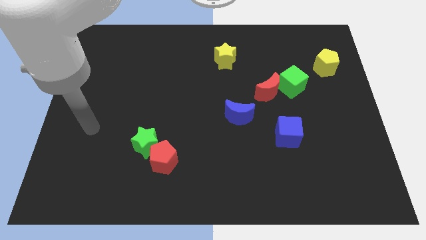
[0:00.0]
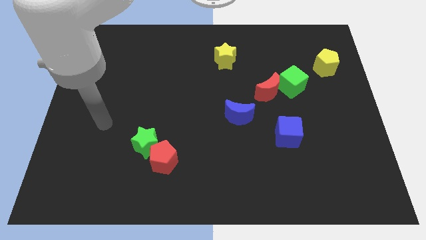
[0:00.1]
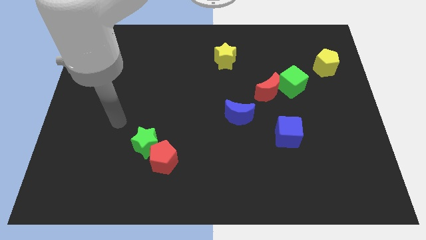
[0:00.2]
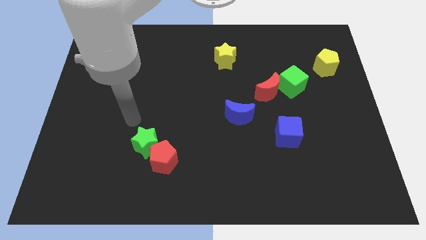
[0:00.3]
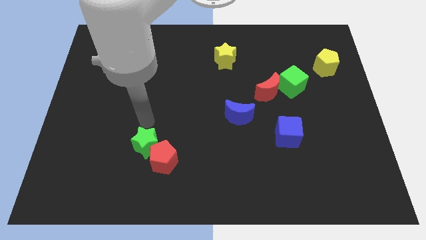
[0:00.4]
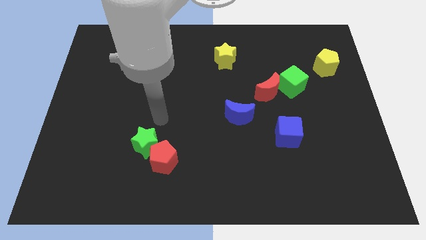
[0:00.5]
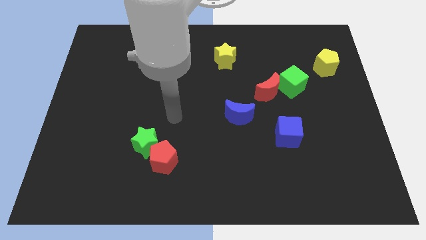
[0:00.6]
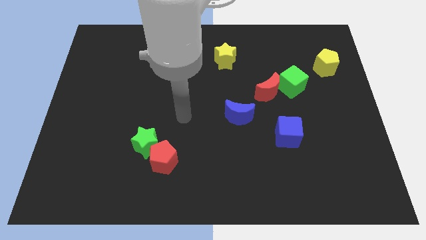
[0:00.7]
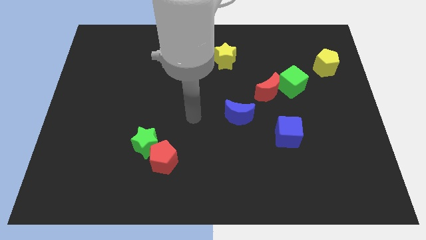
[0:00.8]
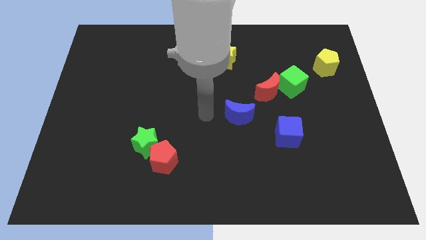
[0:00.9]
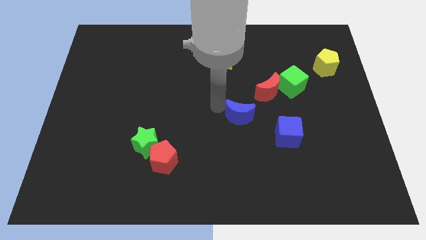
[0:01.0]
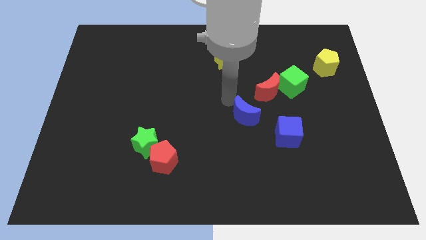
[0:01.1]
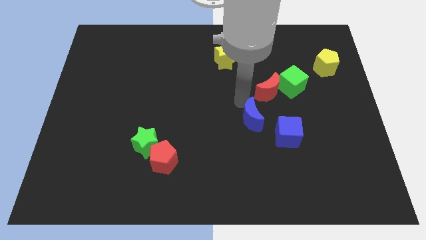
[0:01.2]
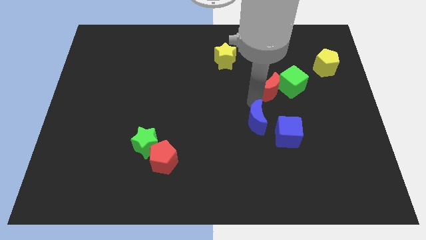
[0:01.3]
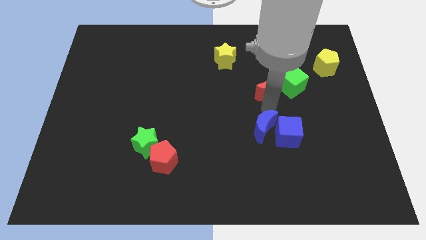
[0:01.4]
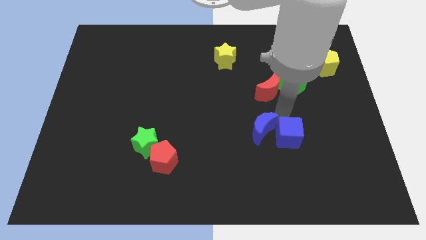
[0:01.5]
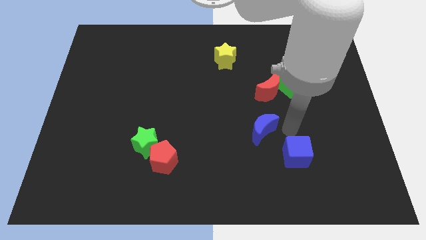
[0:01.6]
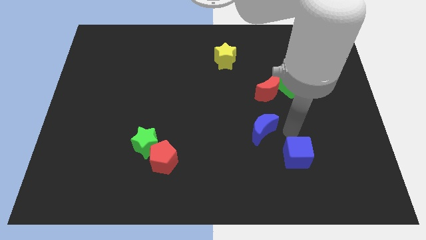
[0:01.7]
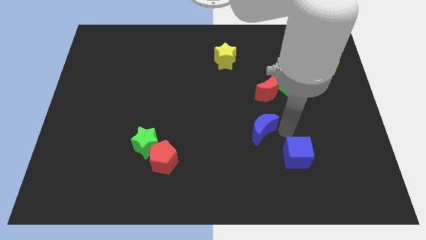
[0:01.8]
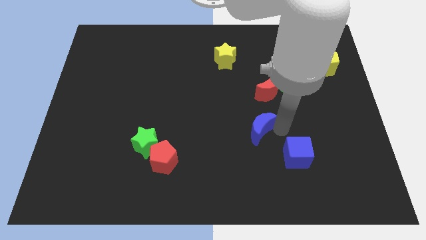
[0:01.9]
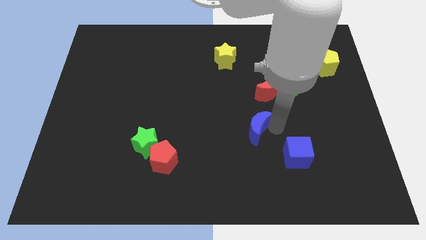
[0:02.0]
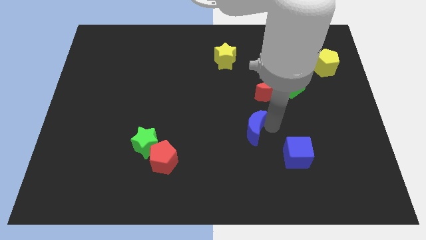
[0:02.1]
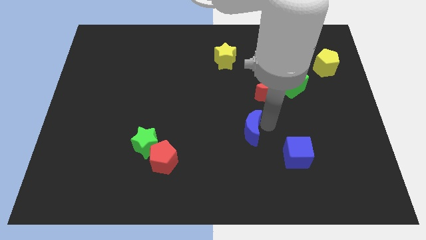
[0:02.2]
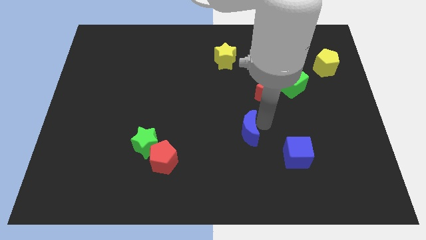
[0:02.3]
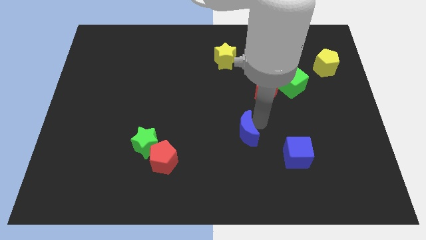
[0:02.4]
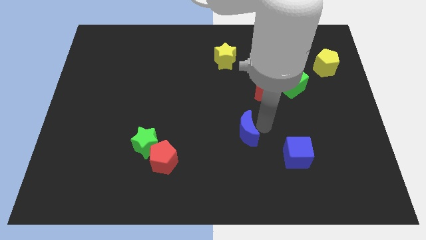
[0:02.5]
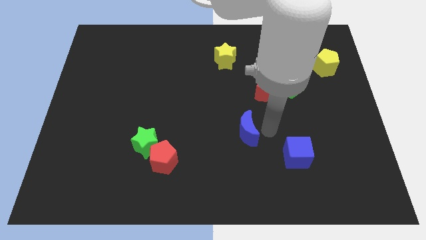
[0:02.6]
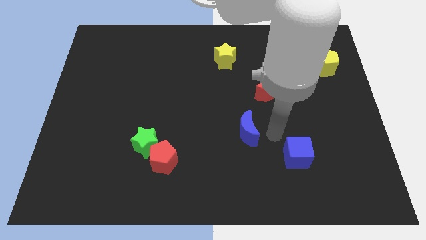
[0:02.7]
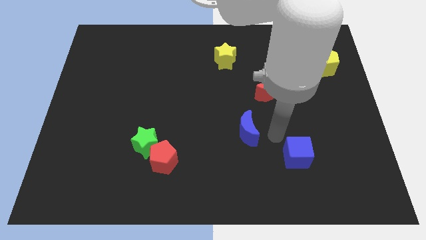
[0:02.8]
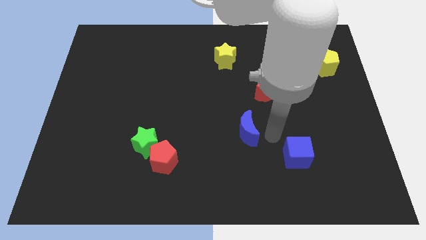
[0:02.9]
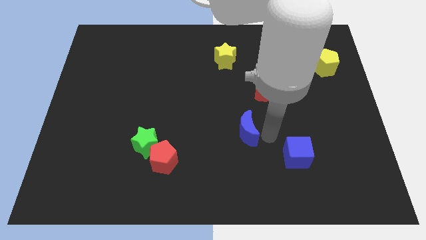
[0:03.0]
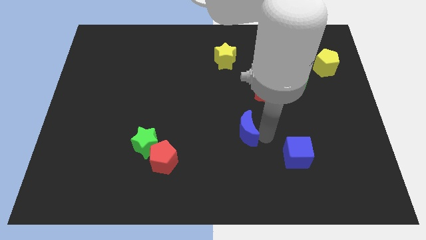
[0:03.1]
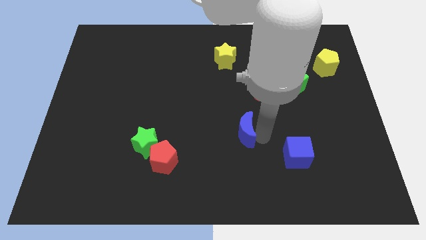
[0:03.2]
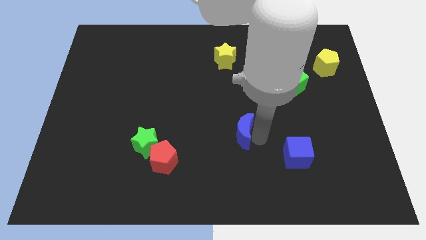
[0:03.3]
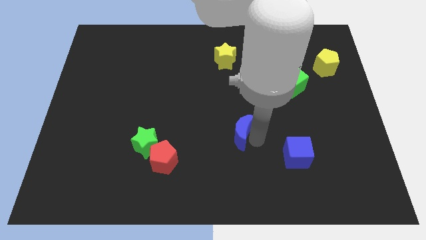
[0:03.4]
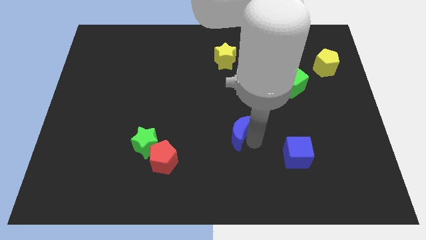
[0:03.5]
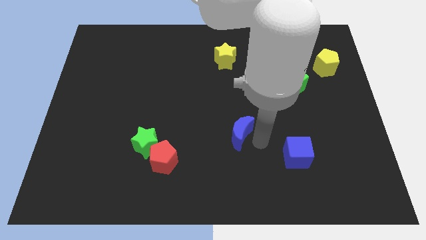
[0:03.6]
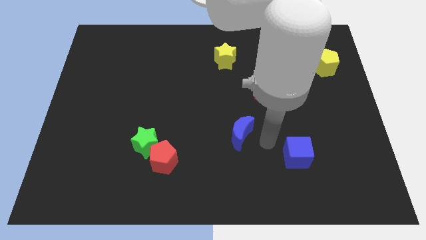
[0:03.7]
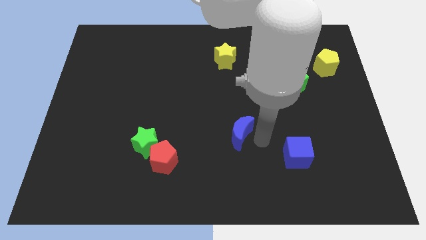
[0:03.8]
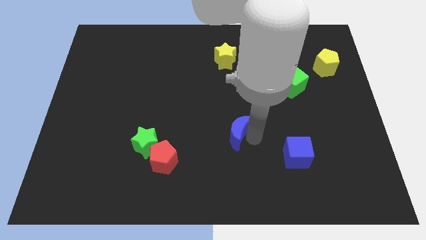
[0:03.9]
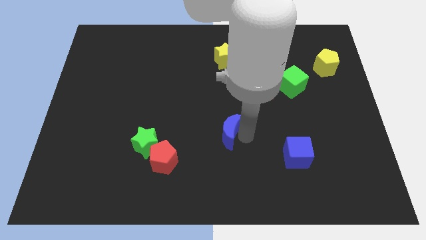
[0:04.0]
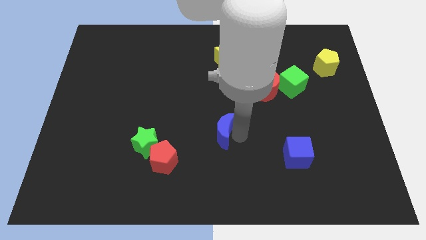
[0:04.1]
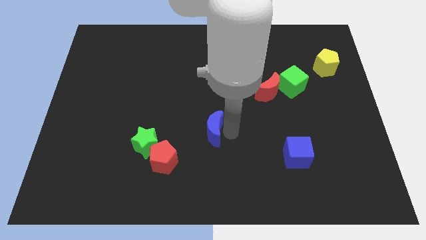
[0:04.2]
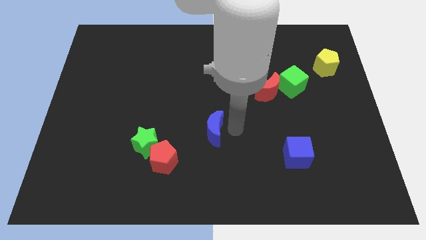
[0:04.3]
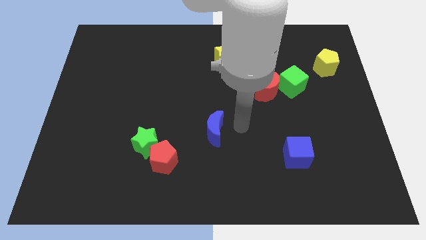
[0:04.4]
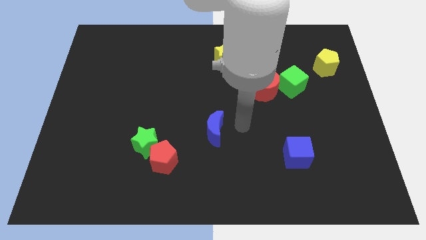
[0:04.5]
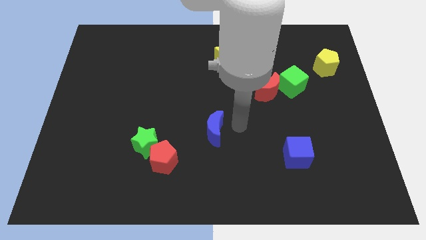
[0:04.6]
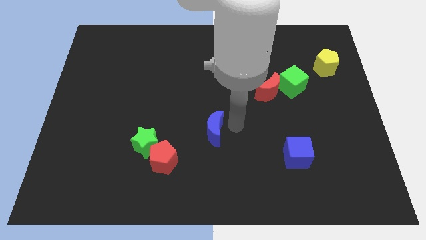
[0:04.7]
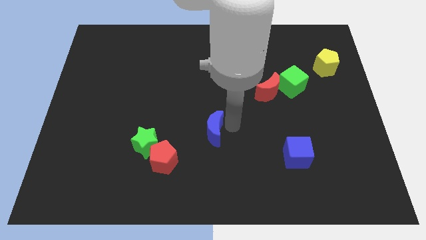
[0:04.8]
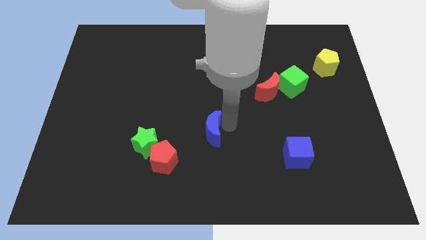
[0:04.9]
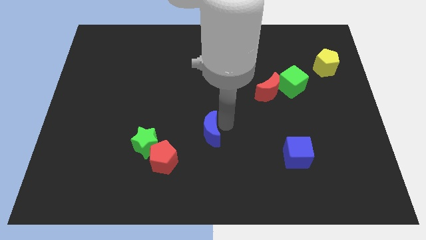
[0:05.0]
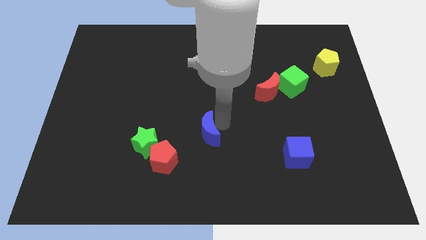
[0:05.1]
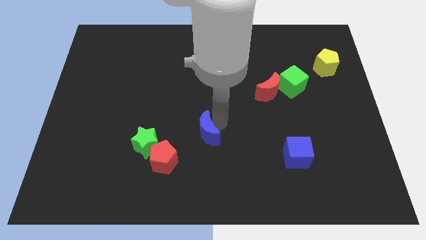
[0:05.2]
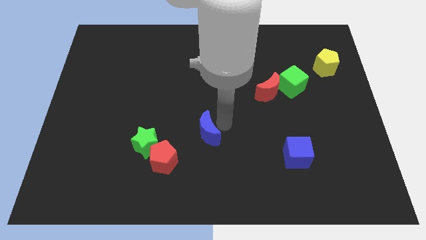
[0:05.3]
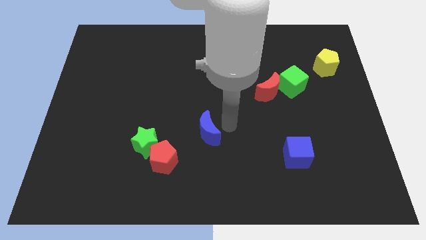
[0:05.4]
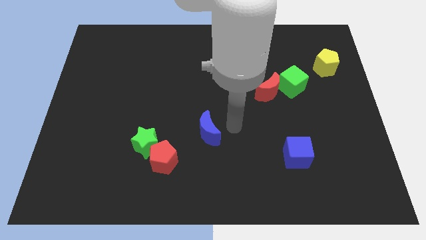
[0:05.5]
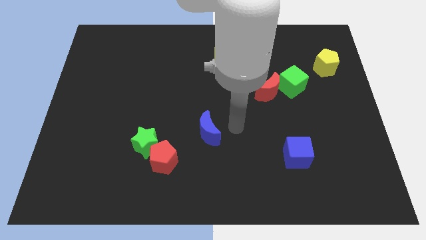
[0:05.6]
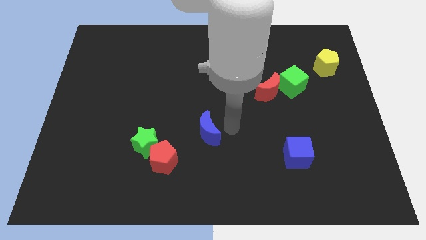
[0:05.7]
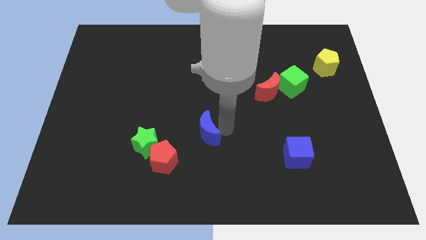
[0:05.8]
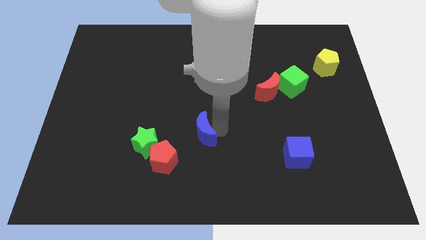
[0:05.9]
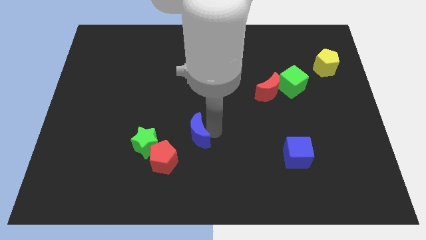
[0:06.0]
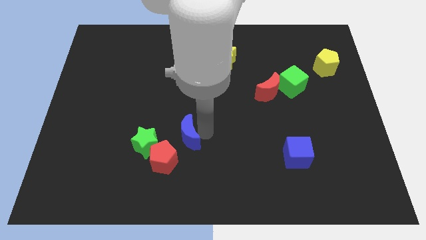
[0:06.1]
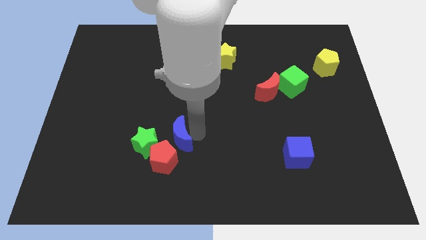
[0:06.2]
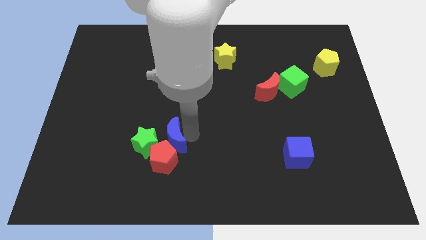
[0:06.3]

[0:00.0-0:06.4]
slide the blue moon towards the green star

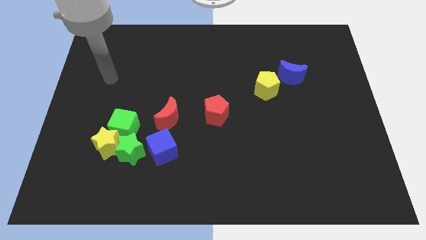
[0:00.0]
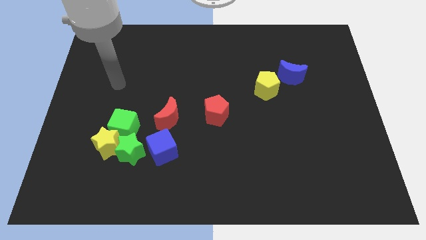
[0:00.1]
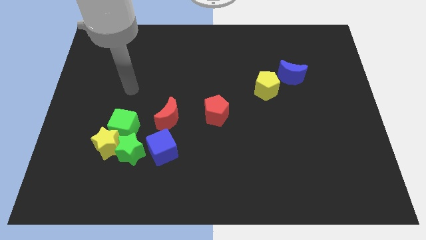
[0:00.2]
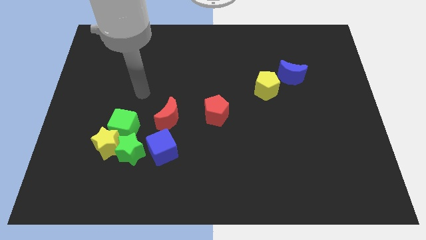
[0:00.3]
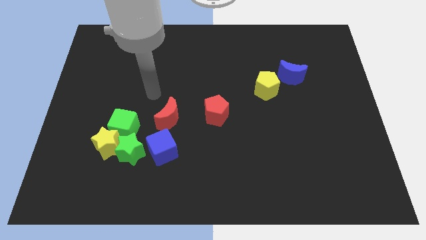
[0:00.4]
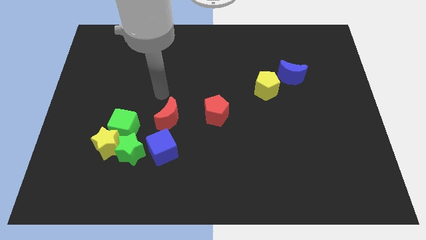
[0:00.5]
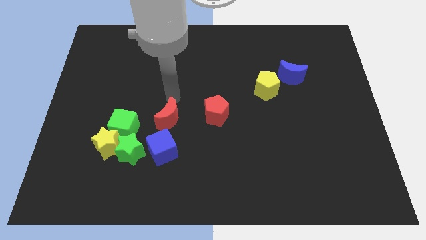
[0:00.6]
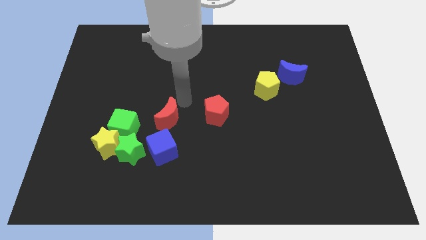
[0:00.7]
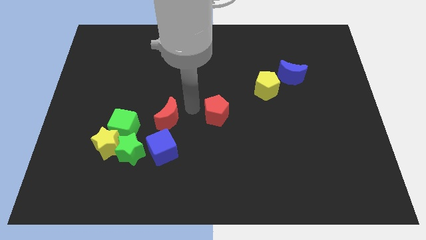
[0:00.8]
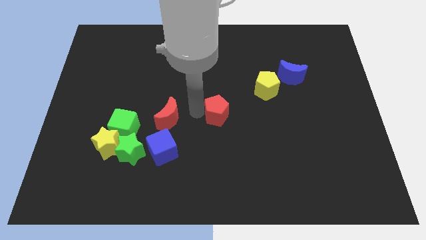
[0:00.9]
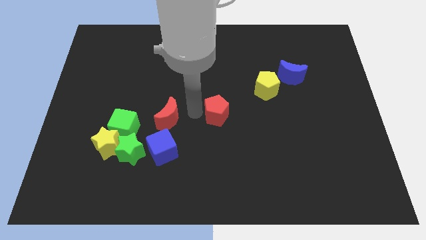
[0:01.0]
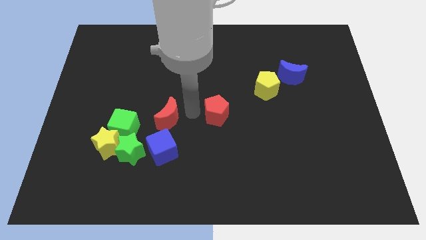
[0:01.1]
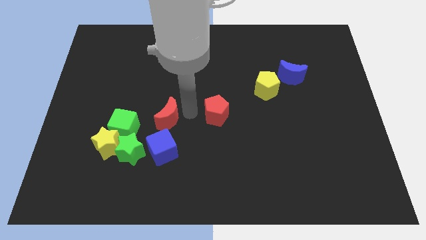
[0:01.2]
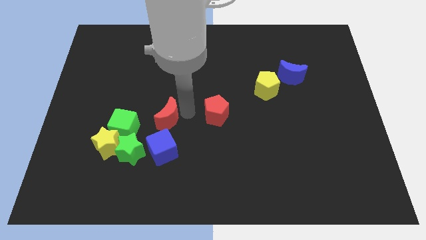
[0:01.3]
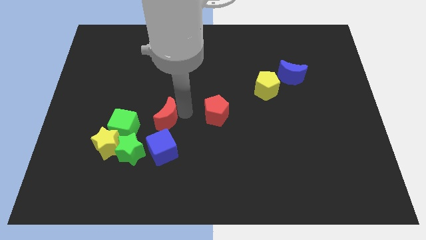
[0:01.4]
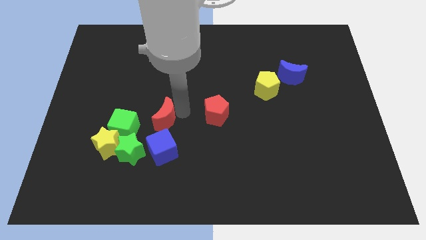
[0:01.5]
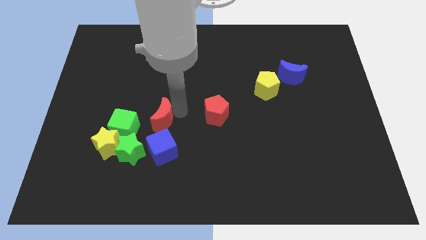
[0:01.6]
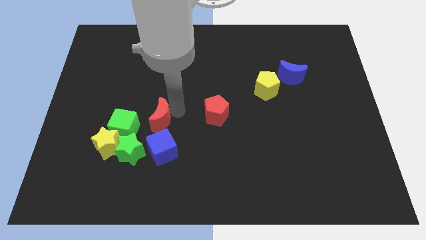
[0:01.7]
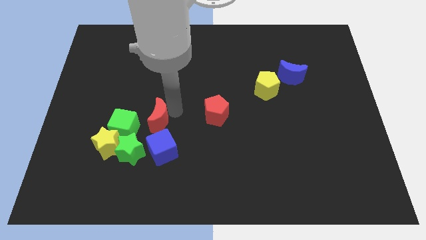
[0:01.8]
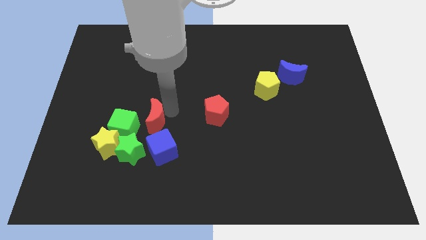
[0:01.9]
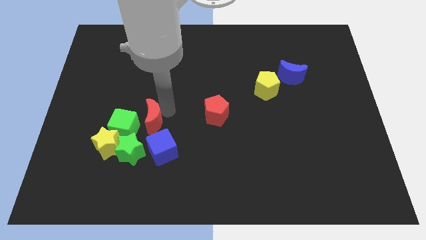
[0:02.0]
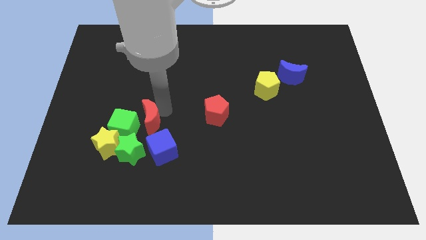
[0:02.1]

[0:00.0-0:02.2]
push the red moon to the green cube
